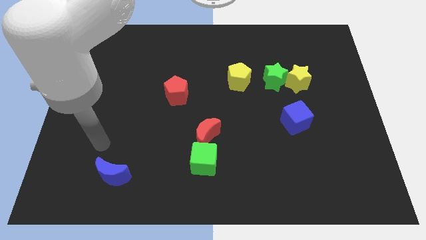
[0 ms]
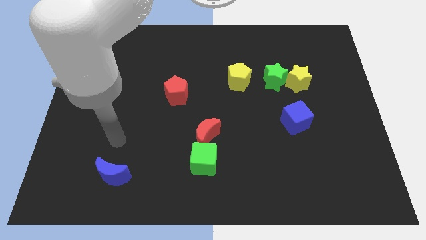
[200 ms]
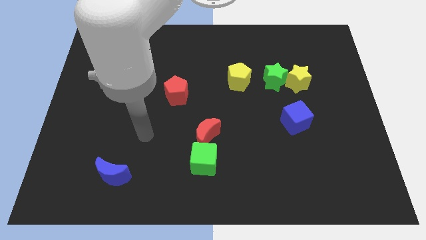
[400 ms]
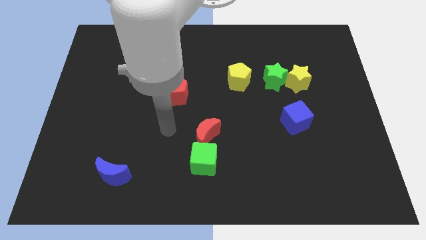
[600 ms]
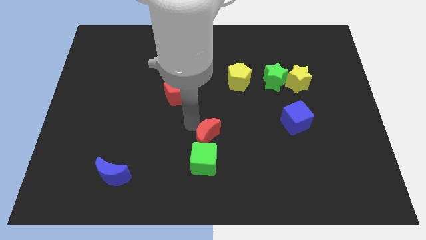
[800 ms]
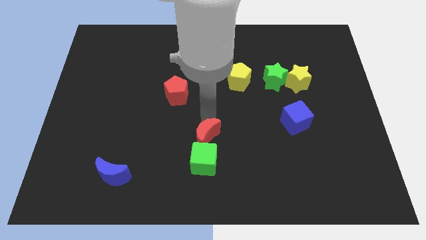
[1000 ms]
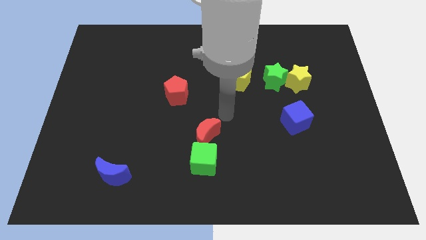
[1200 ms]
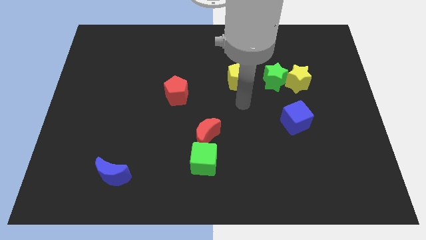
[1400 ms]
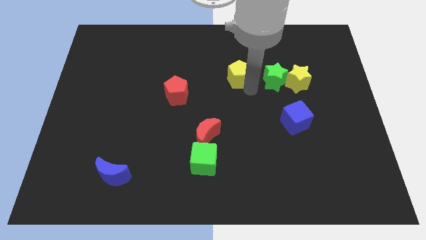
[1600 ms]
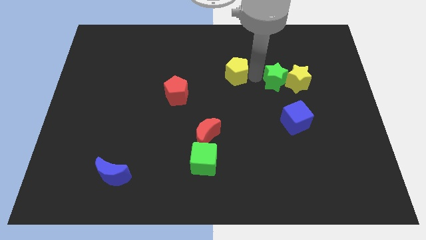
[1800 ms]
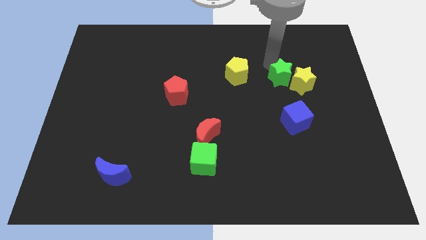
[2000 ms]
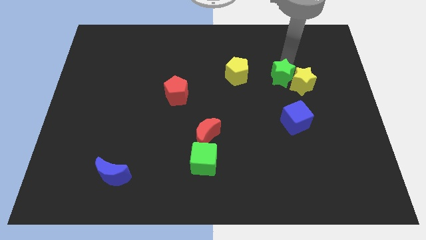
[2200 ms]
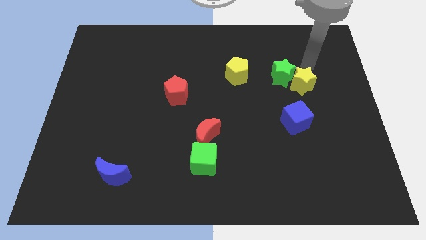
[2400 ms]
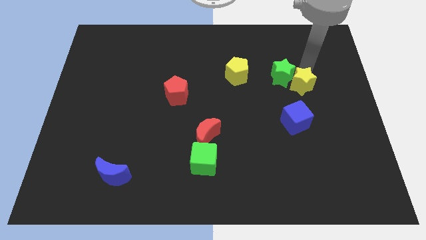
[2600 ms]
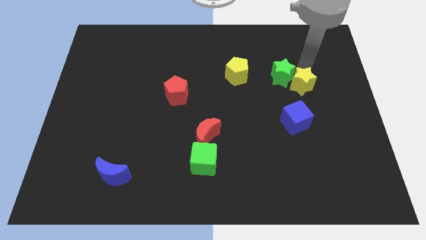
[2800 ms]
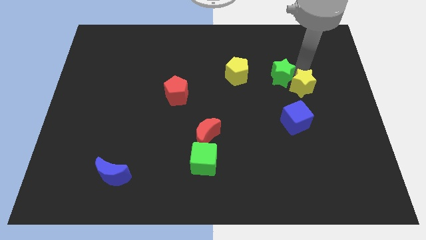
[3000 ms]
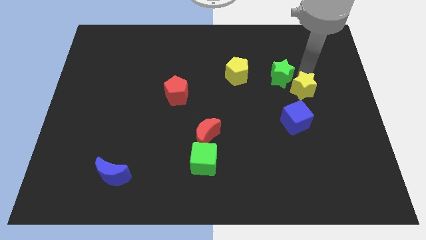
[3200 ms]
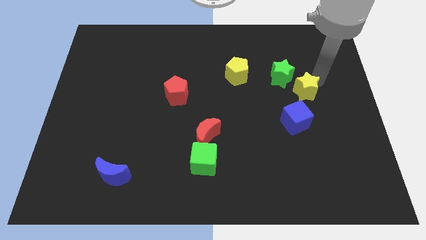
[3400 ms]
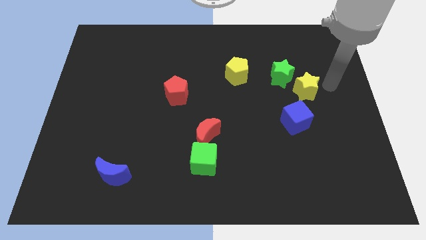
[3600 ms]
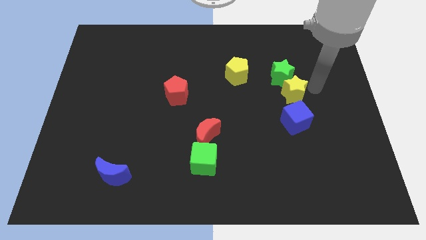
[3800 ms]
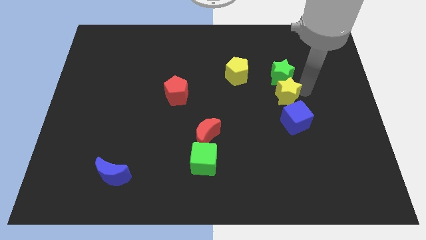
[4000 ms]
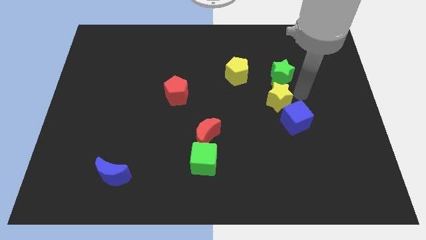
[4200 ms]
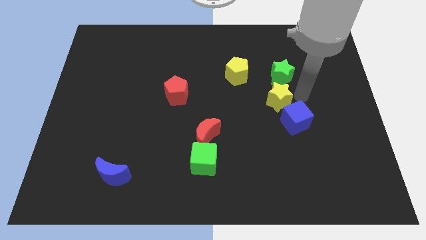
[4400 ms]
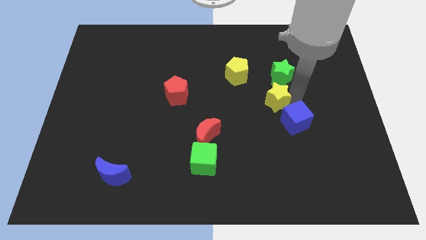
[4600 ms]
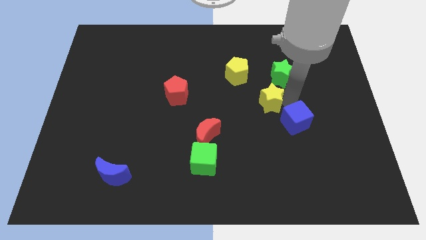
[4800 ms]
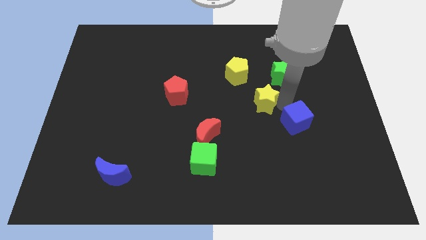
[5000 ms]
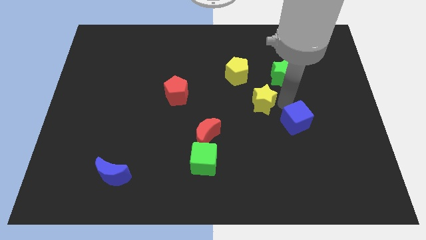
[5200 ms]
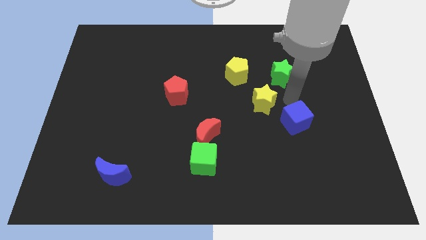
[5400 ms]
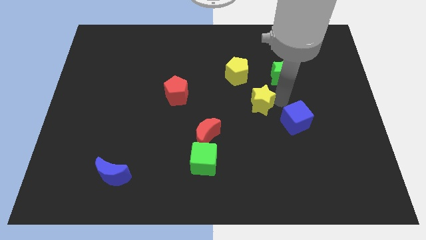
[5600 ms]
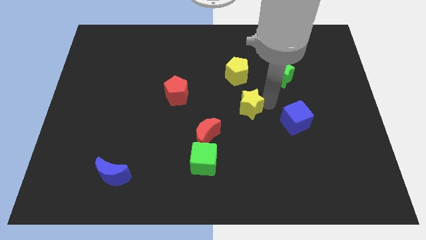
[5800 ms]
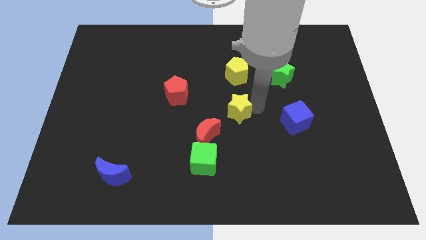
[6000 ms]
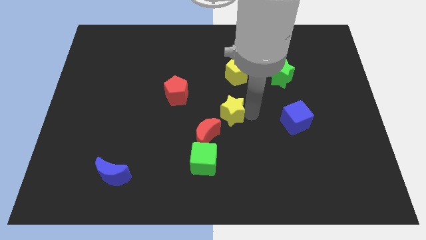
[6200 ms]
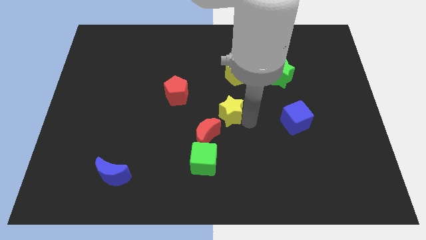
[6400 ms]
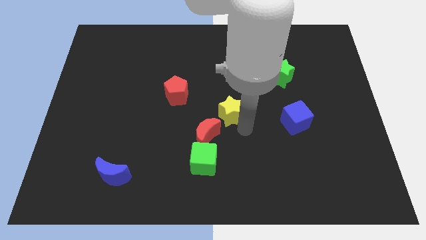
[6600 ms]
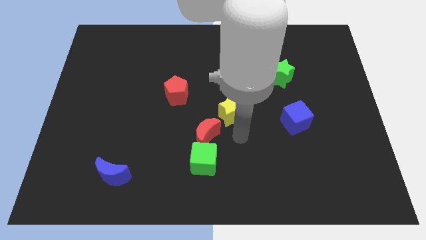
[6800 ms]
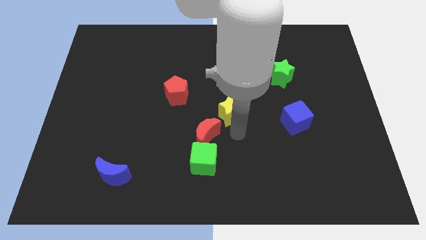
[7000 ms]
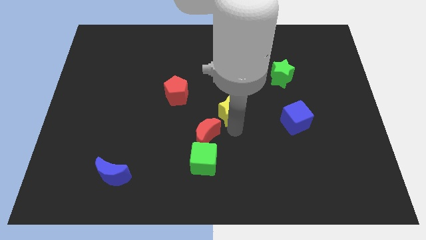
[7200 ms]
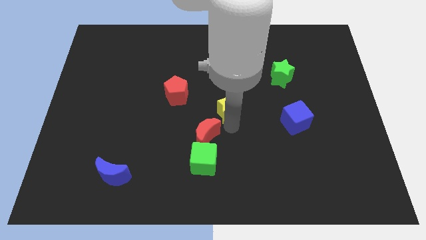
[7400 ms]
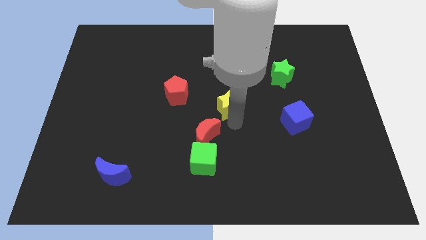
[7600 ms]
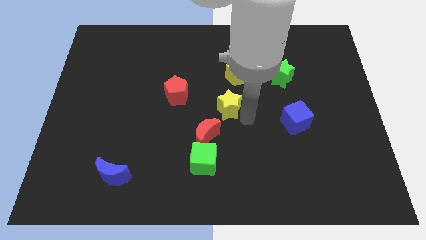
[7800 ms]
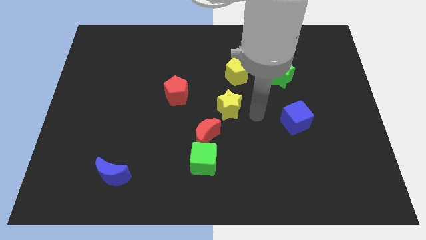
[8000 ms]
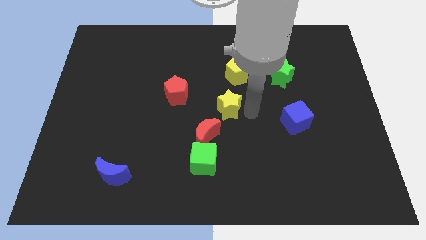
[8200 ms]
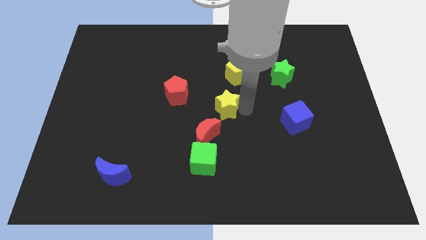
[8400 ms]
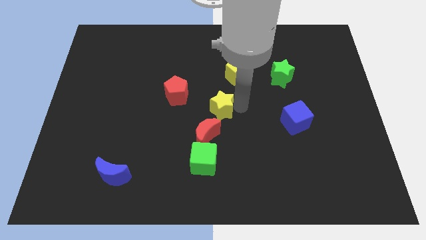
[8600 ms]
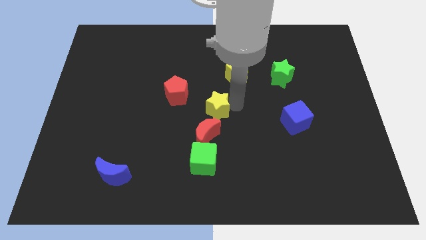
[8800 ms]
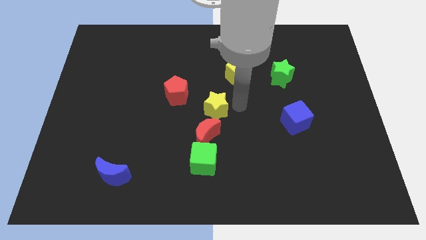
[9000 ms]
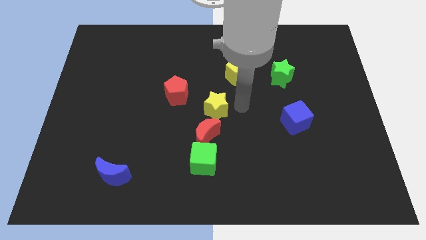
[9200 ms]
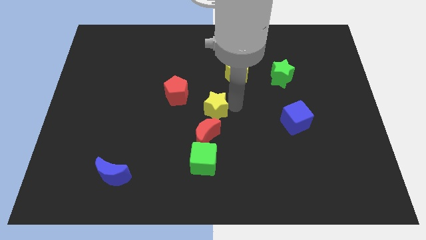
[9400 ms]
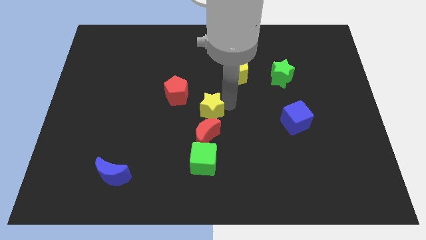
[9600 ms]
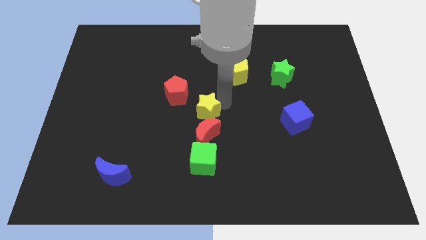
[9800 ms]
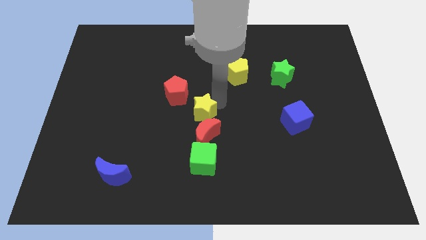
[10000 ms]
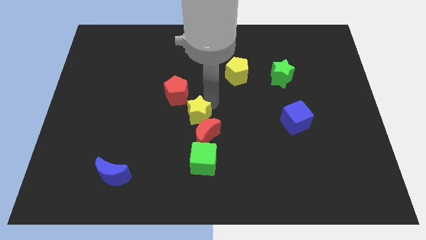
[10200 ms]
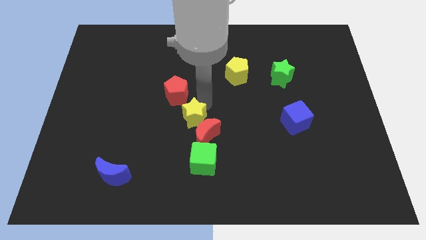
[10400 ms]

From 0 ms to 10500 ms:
put the yellow star to the bottom side of the red pentagon

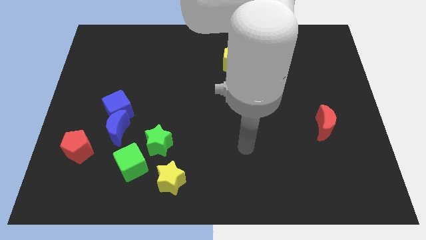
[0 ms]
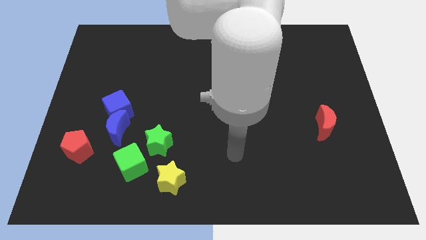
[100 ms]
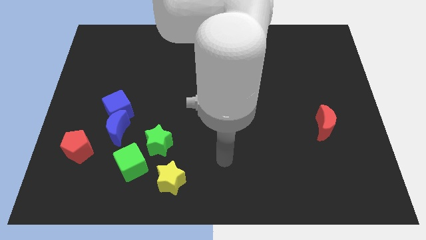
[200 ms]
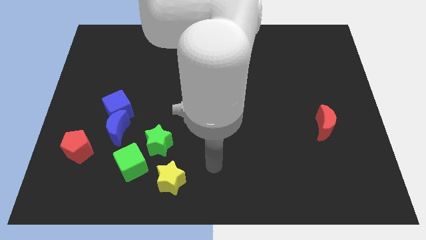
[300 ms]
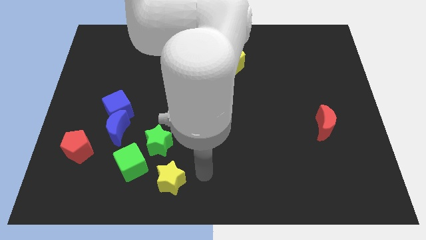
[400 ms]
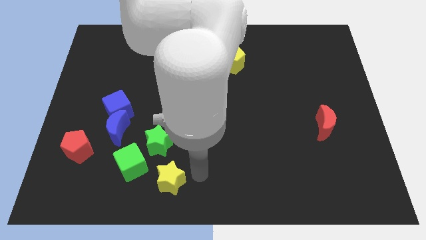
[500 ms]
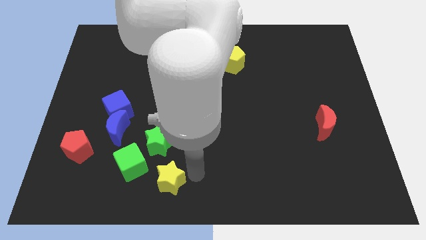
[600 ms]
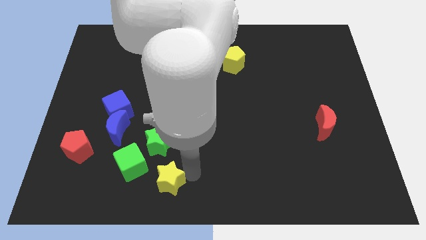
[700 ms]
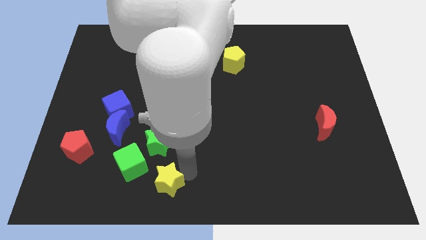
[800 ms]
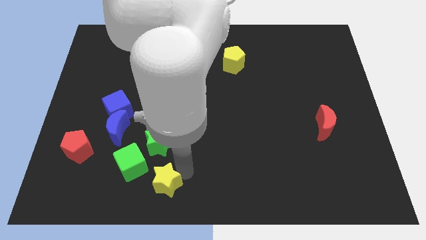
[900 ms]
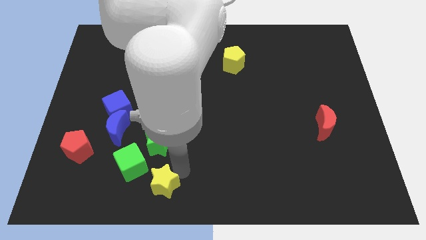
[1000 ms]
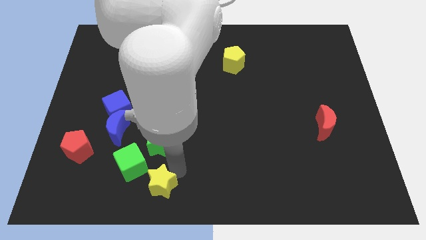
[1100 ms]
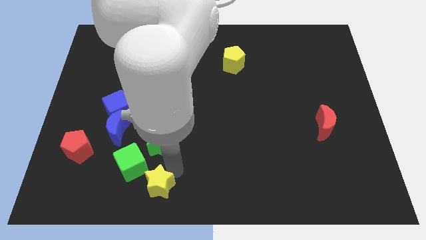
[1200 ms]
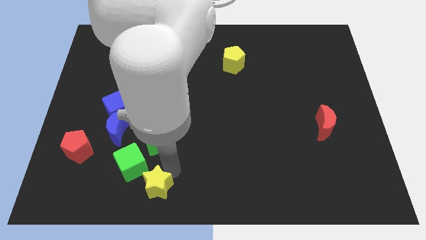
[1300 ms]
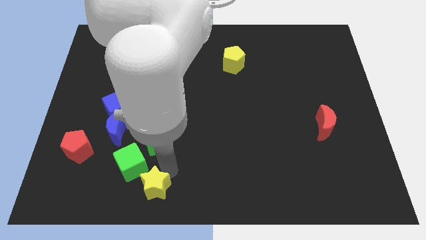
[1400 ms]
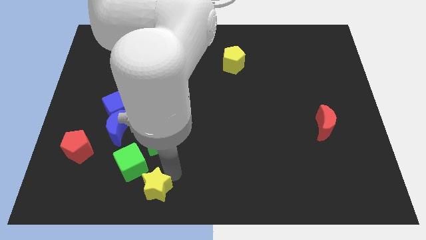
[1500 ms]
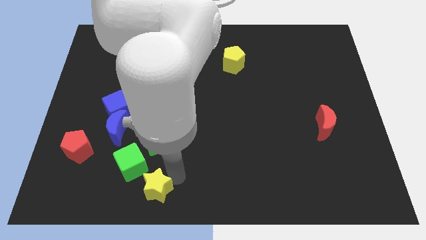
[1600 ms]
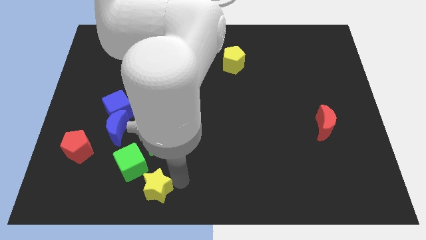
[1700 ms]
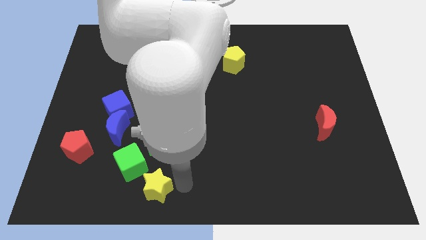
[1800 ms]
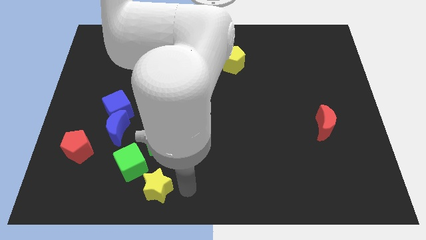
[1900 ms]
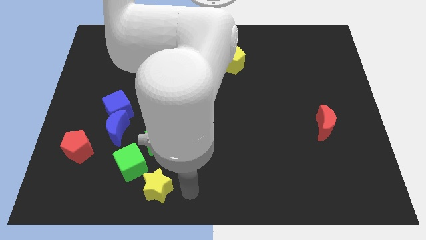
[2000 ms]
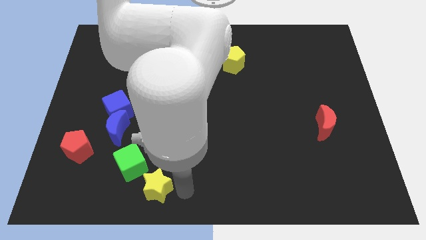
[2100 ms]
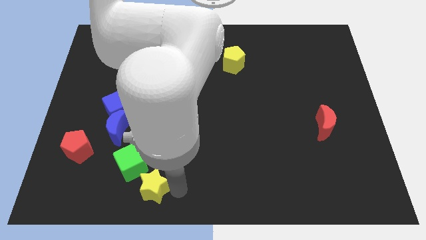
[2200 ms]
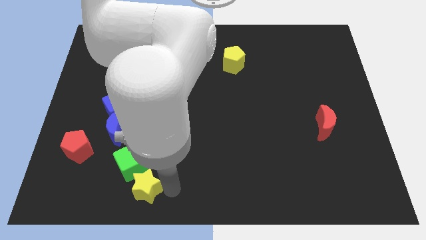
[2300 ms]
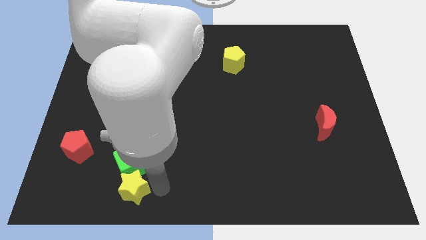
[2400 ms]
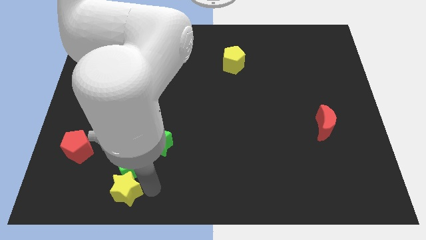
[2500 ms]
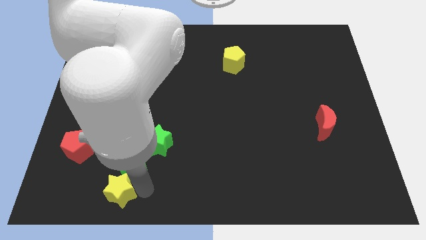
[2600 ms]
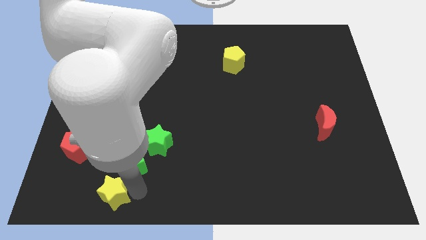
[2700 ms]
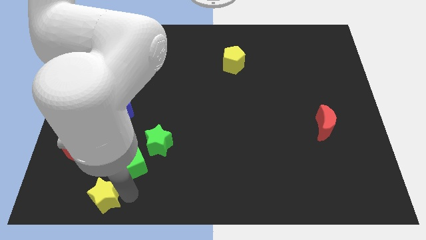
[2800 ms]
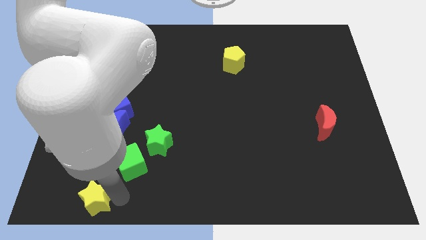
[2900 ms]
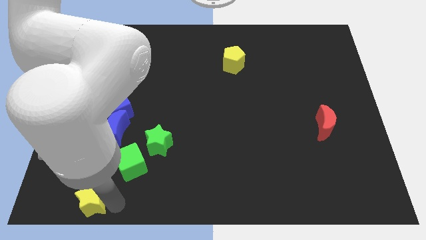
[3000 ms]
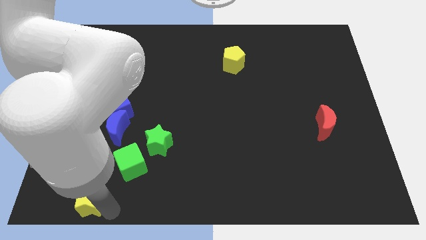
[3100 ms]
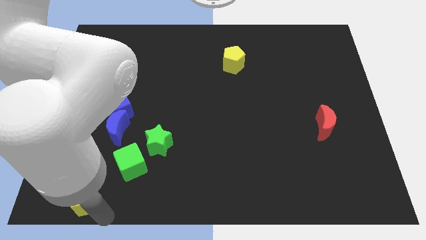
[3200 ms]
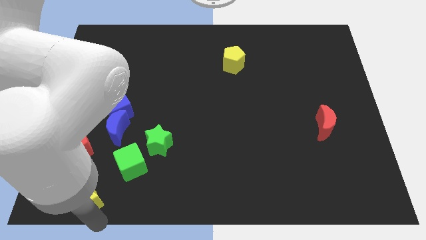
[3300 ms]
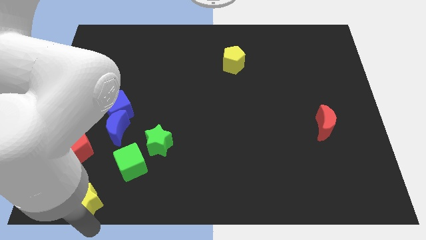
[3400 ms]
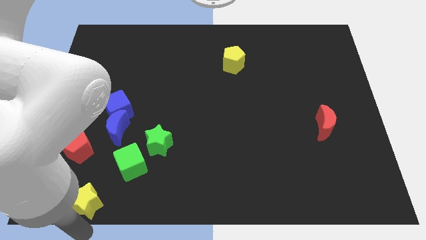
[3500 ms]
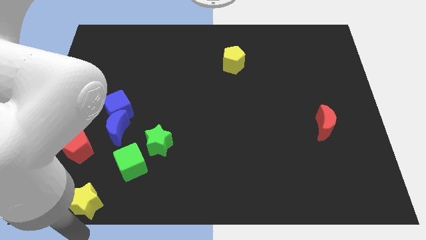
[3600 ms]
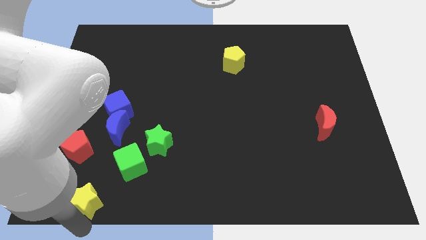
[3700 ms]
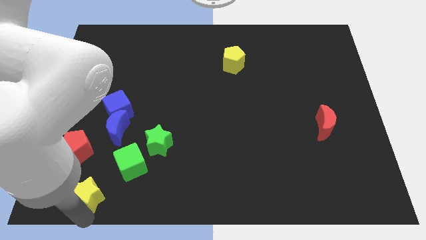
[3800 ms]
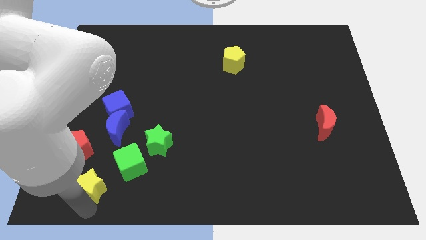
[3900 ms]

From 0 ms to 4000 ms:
move the yellow star diagonally down and to the right of the red pentagon
